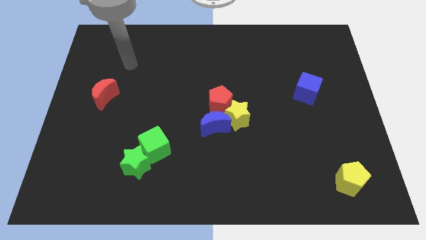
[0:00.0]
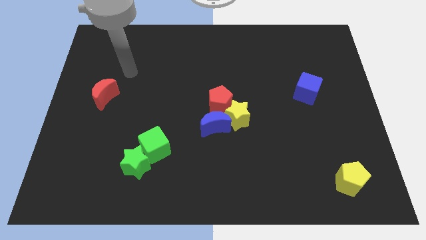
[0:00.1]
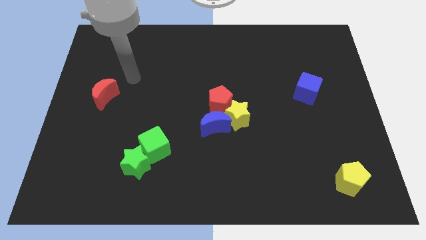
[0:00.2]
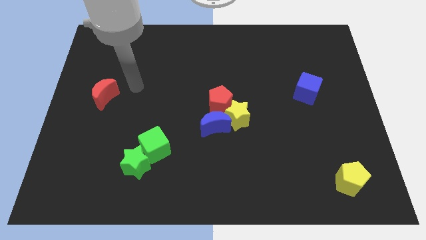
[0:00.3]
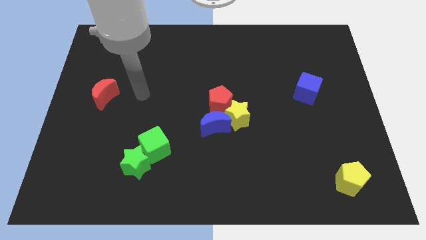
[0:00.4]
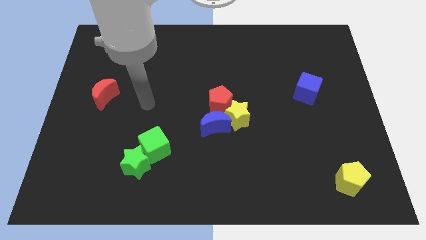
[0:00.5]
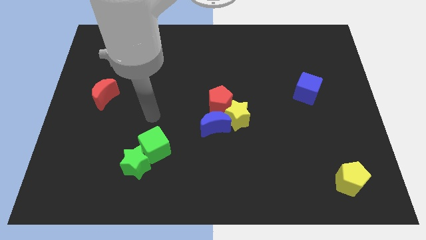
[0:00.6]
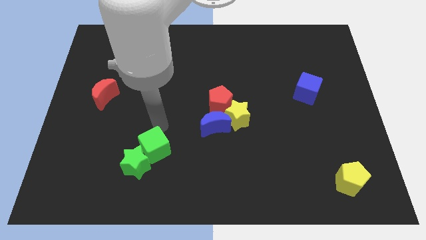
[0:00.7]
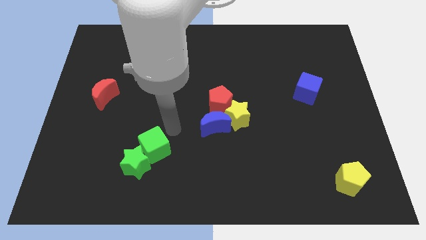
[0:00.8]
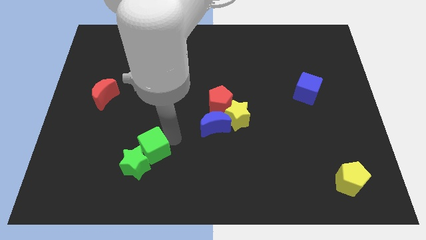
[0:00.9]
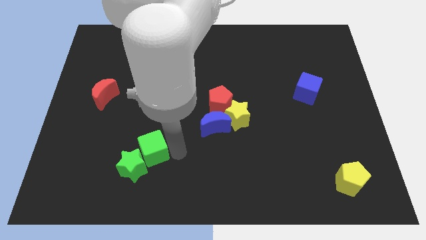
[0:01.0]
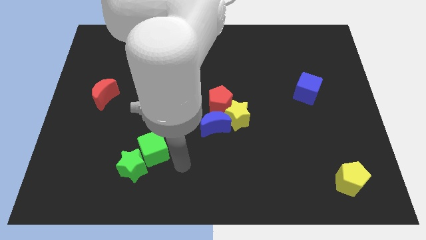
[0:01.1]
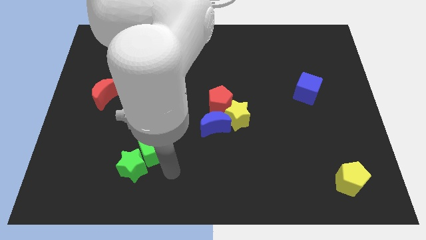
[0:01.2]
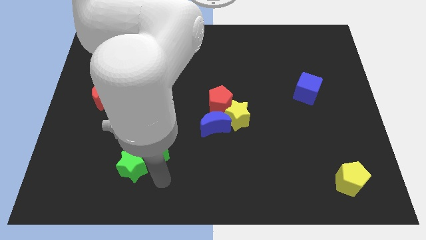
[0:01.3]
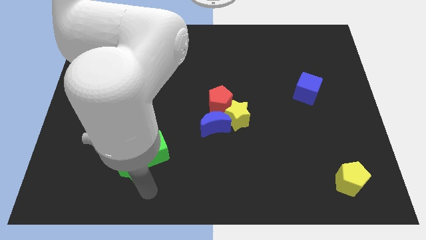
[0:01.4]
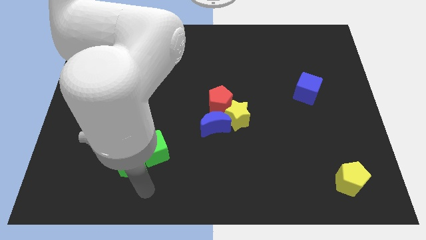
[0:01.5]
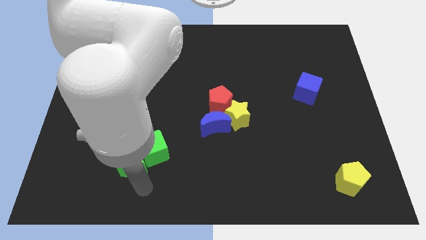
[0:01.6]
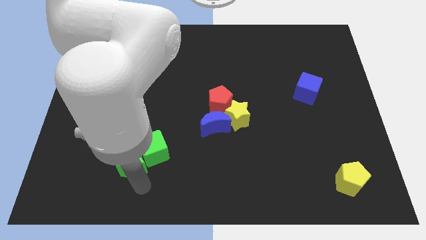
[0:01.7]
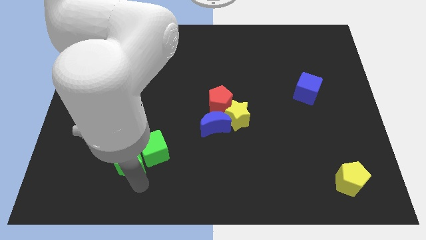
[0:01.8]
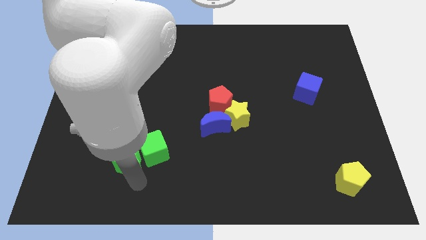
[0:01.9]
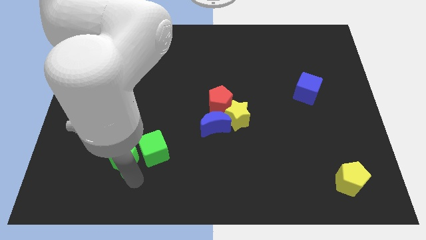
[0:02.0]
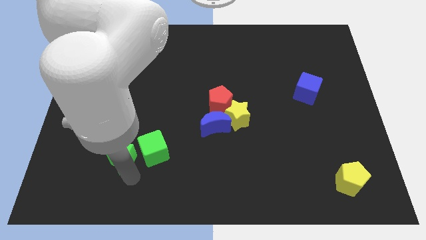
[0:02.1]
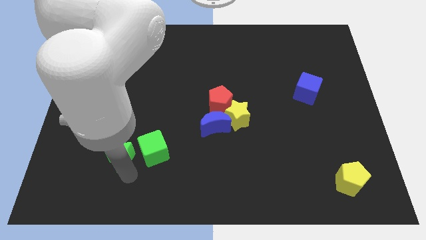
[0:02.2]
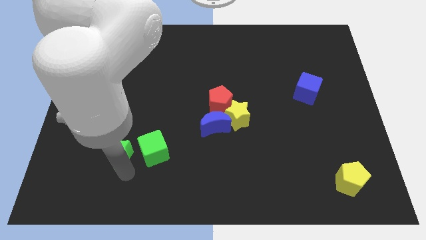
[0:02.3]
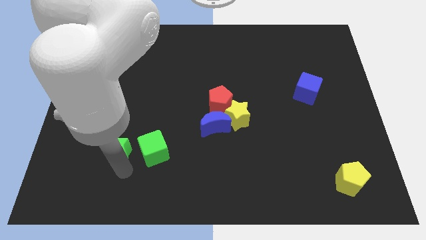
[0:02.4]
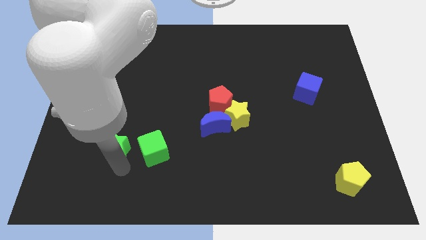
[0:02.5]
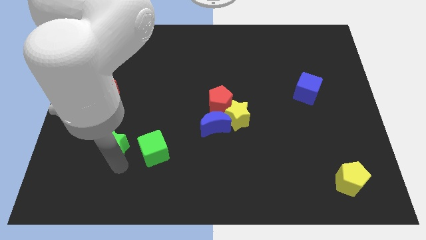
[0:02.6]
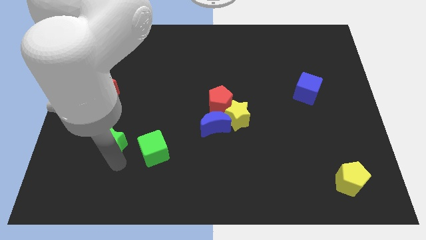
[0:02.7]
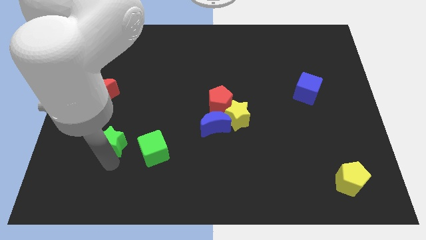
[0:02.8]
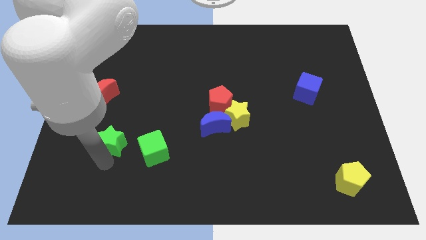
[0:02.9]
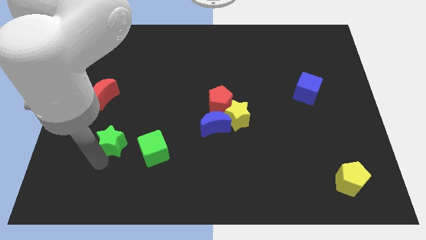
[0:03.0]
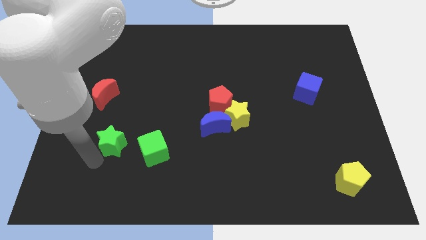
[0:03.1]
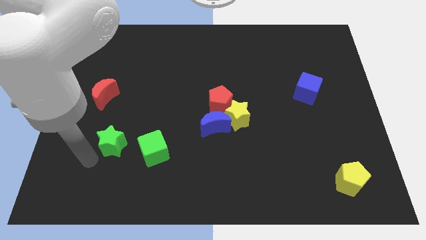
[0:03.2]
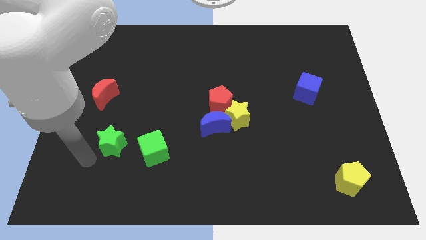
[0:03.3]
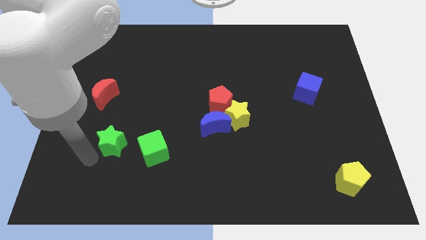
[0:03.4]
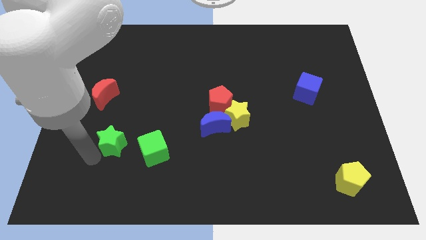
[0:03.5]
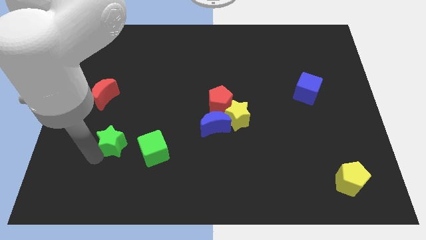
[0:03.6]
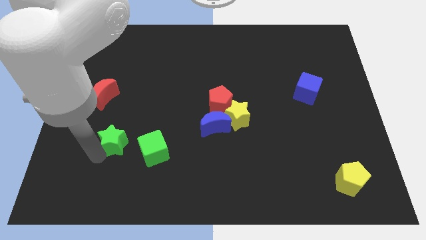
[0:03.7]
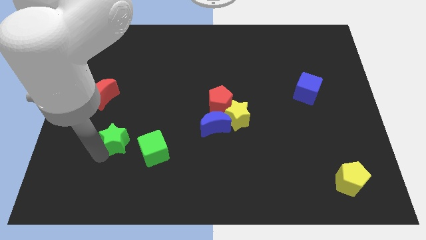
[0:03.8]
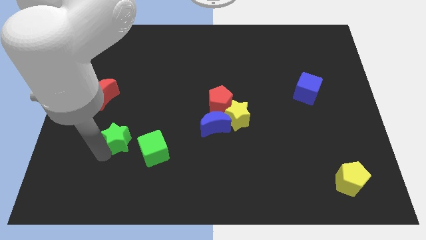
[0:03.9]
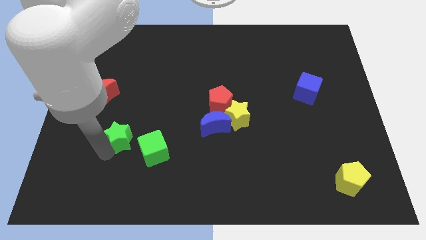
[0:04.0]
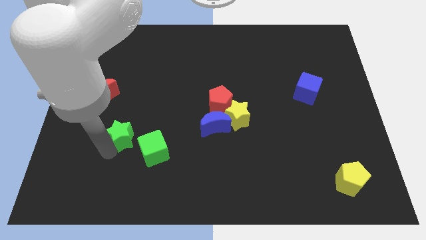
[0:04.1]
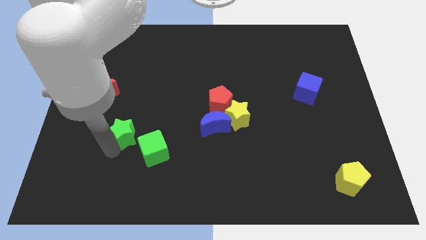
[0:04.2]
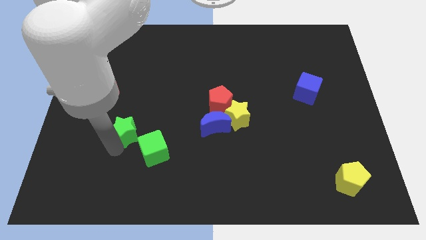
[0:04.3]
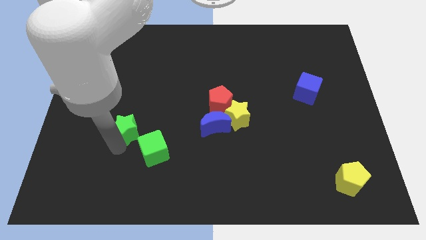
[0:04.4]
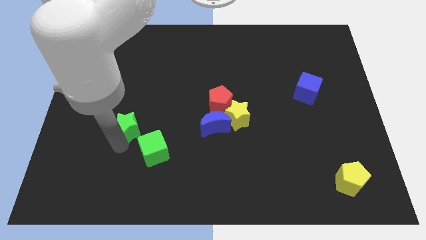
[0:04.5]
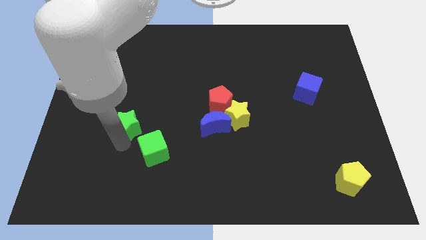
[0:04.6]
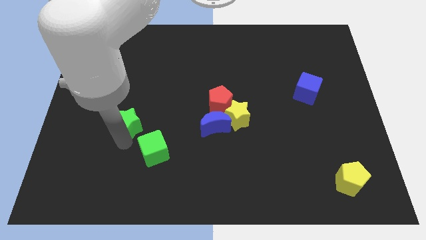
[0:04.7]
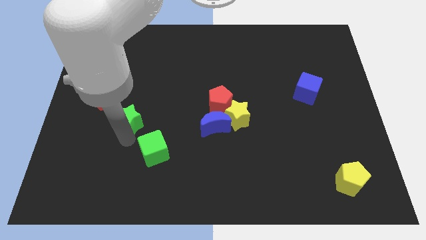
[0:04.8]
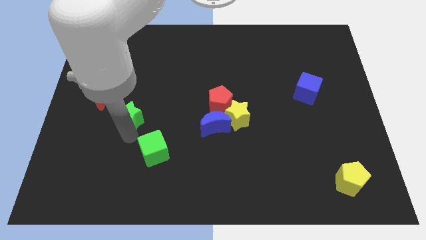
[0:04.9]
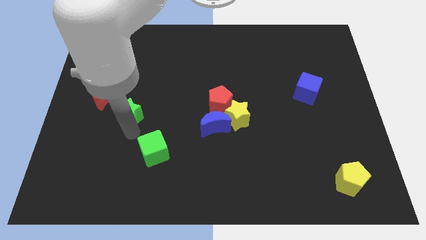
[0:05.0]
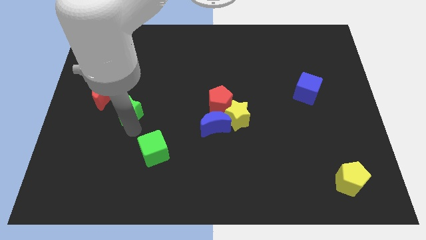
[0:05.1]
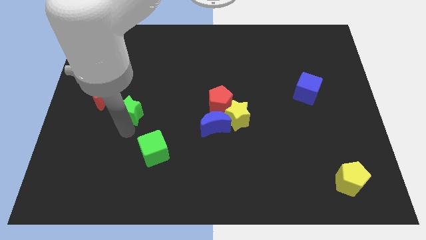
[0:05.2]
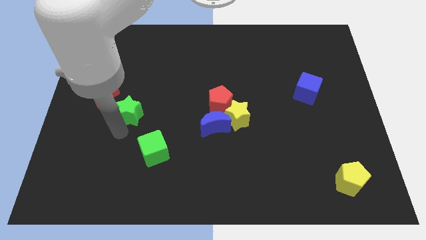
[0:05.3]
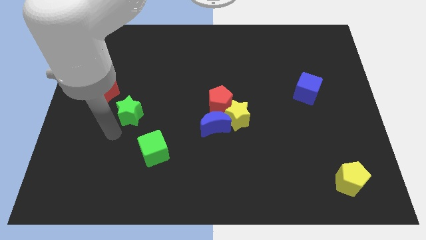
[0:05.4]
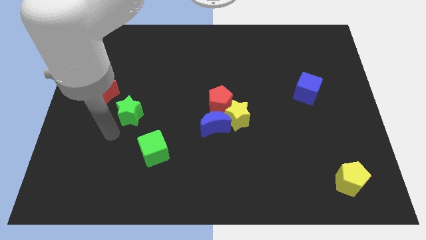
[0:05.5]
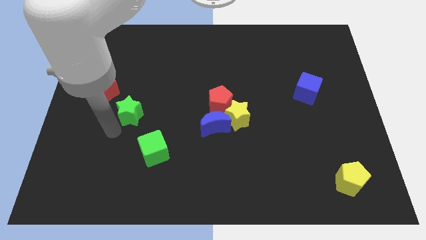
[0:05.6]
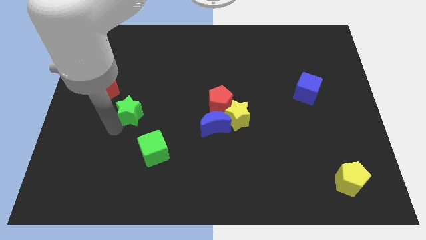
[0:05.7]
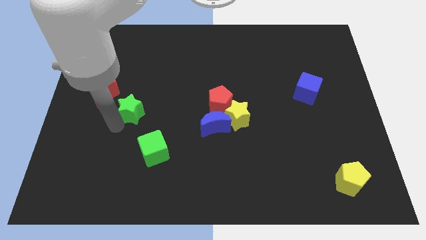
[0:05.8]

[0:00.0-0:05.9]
push the green star right of the red moon

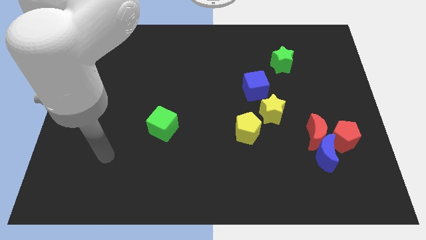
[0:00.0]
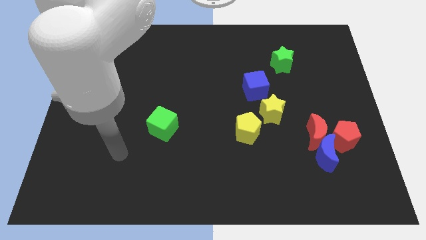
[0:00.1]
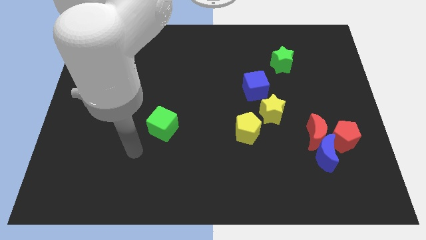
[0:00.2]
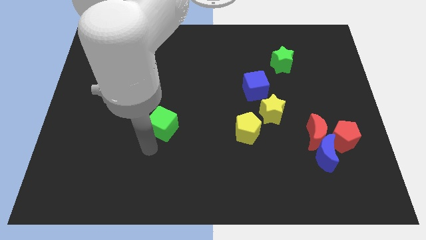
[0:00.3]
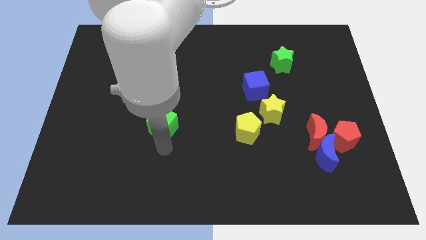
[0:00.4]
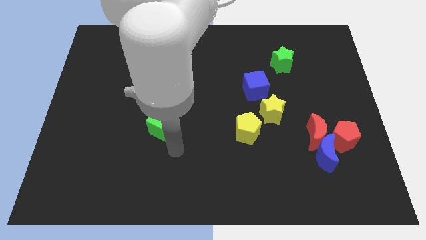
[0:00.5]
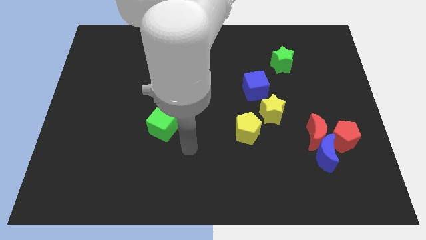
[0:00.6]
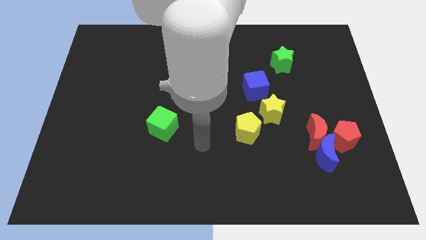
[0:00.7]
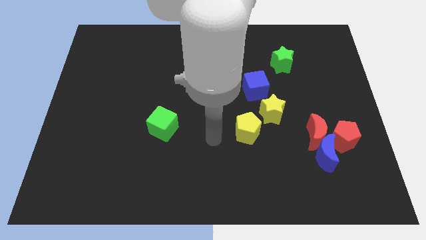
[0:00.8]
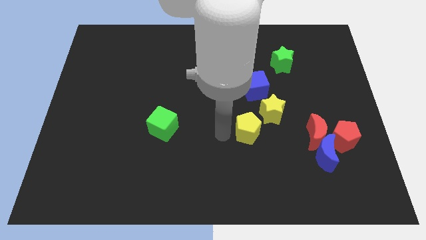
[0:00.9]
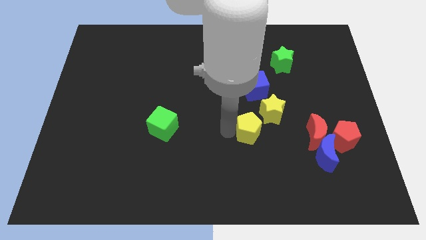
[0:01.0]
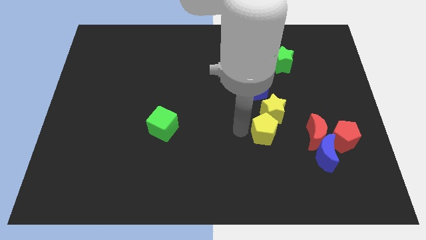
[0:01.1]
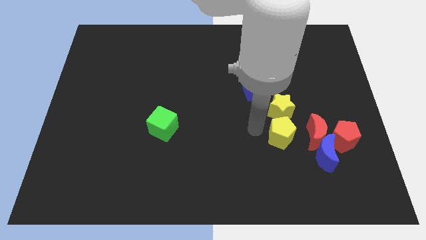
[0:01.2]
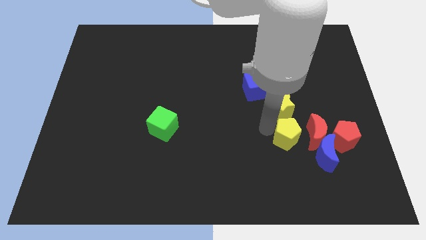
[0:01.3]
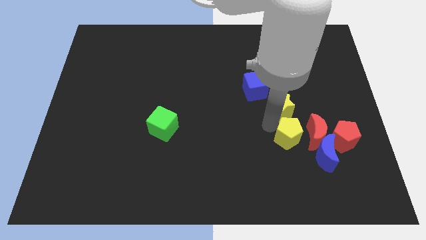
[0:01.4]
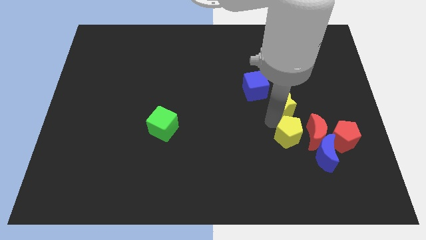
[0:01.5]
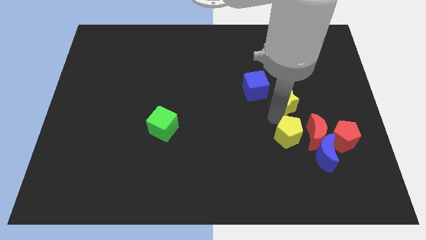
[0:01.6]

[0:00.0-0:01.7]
slide the yellow star to the right side of the blue cube
